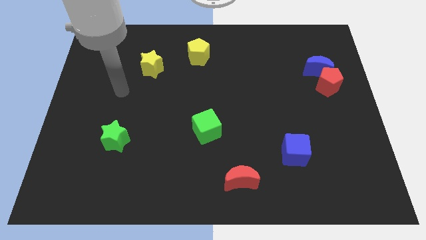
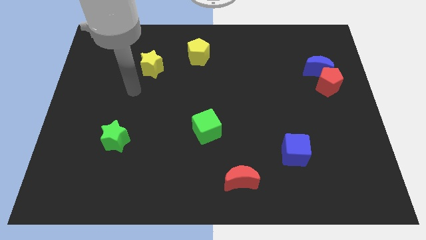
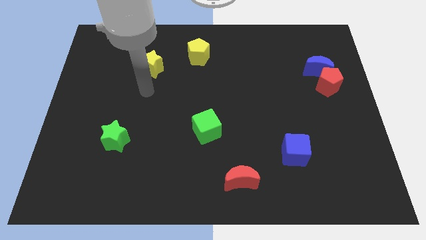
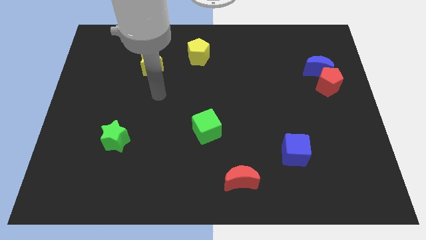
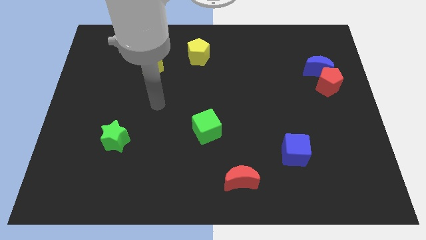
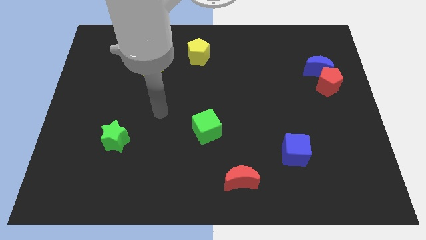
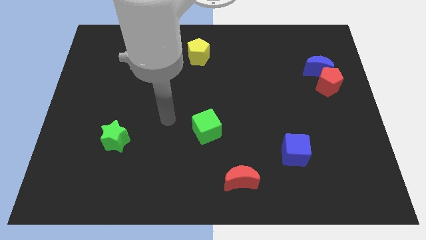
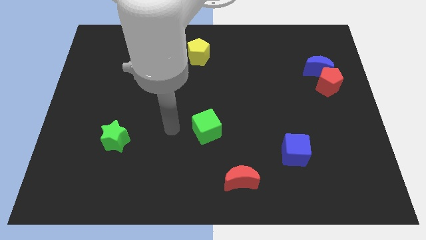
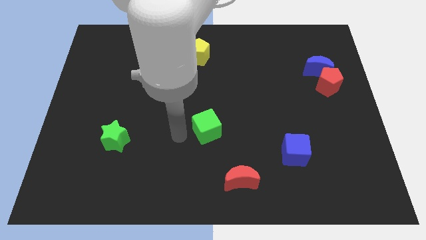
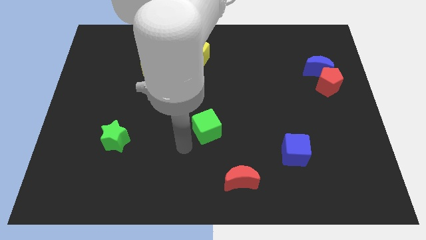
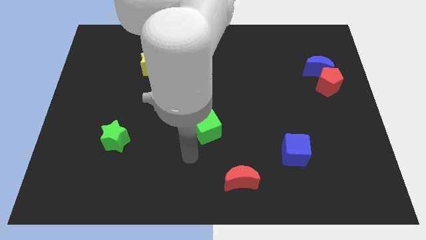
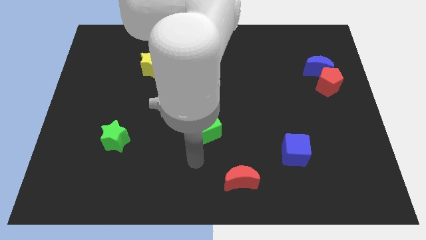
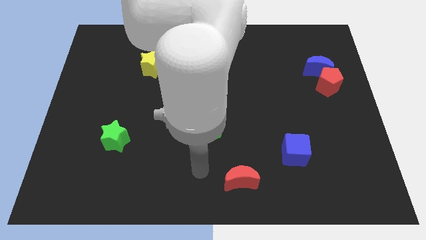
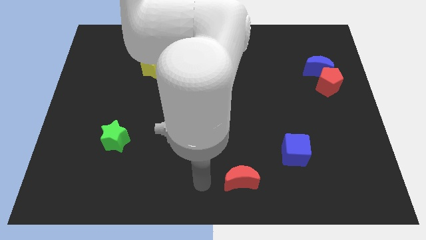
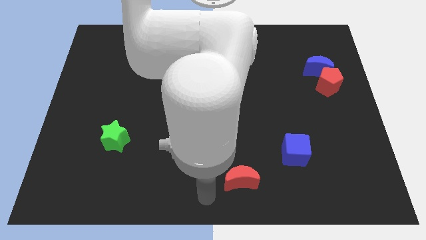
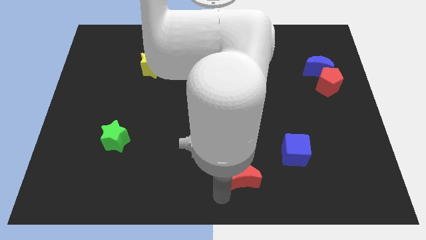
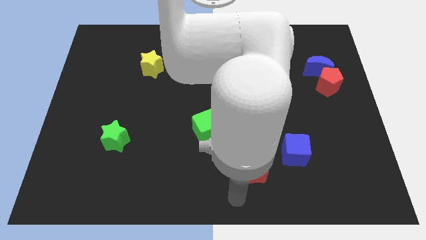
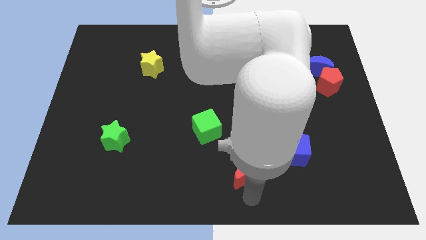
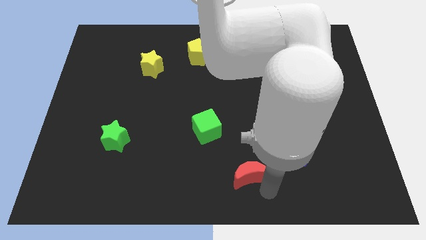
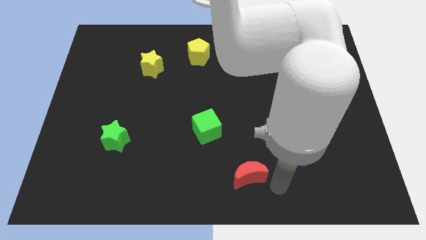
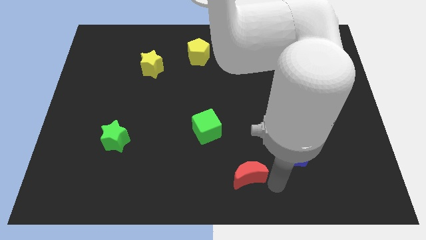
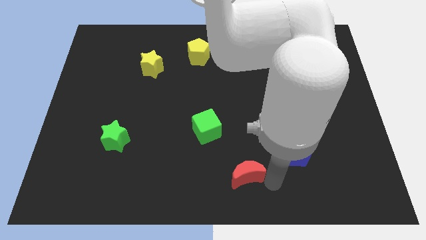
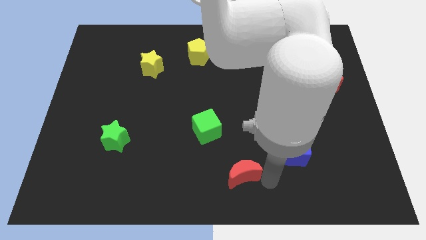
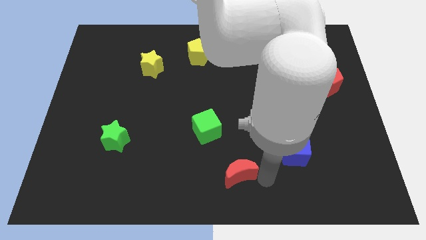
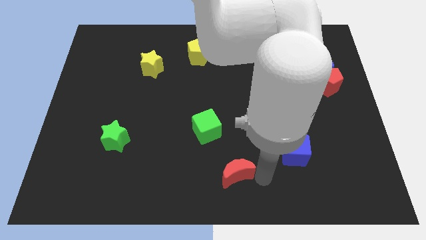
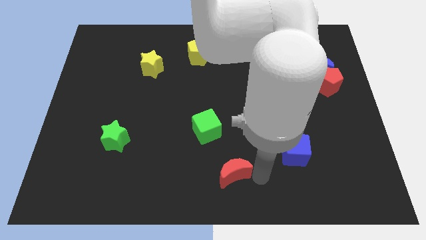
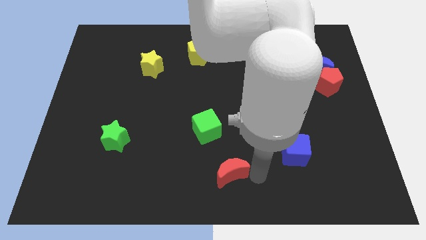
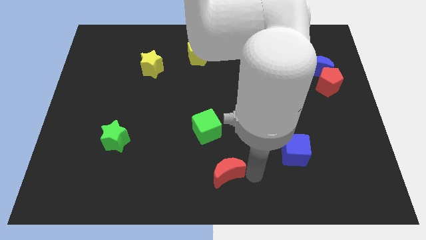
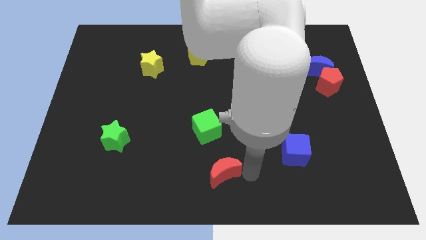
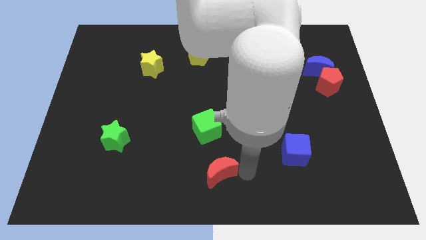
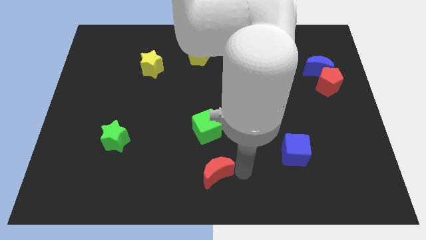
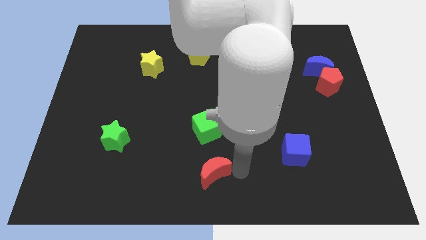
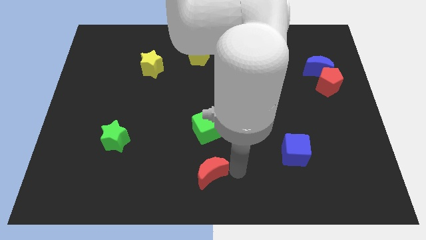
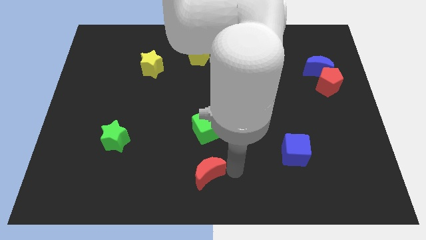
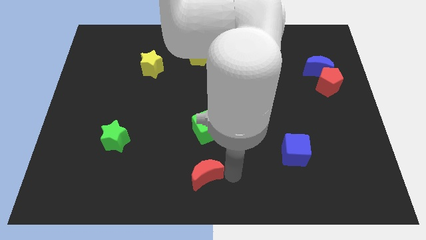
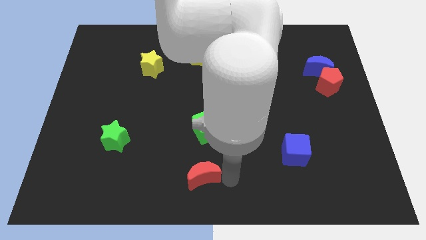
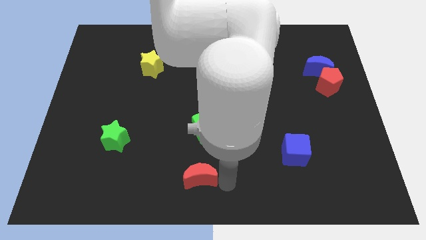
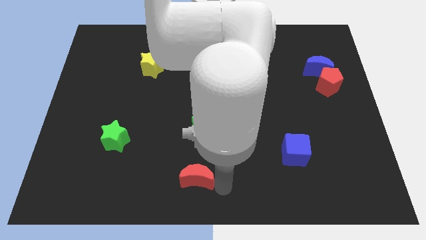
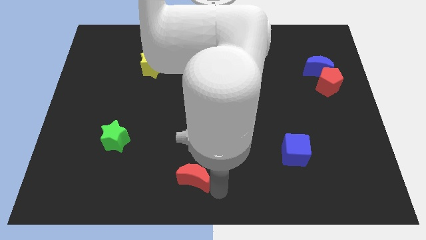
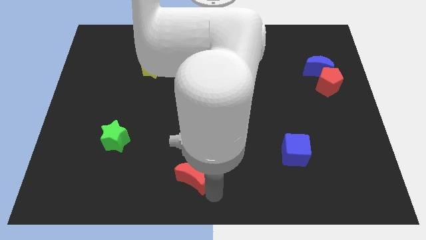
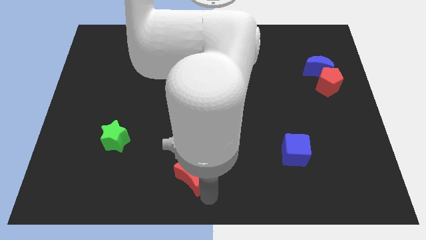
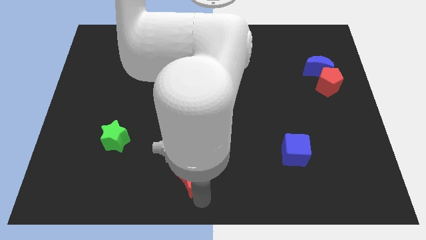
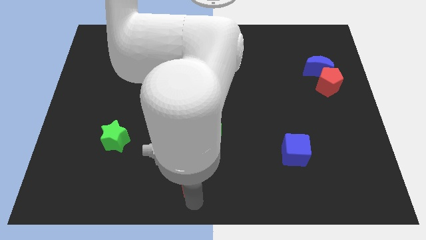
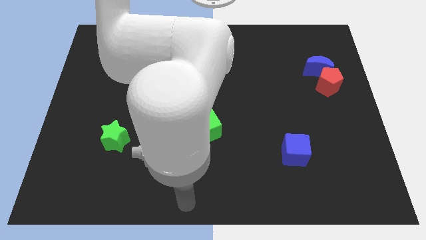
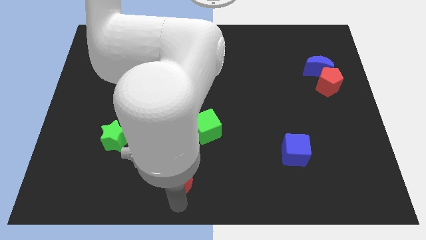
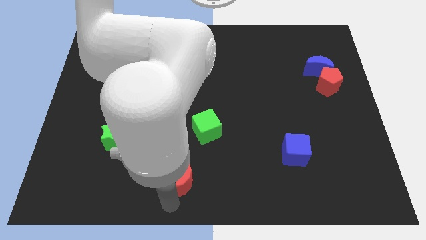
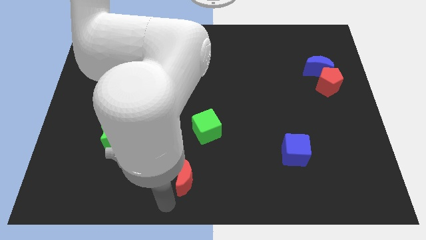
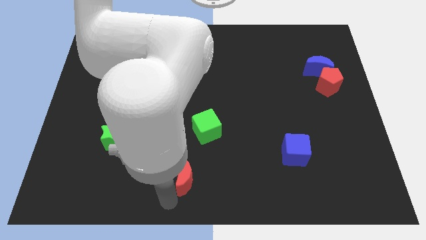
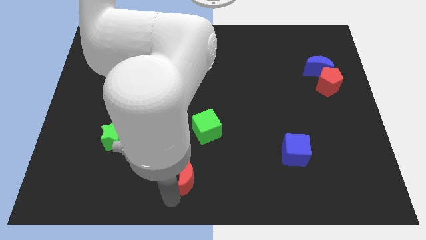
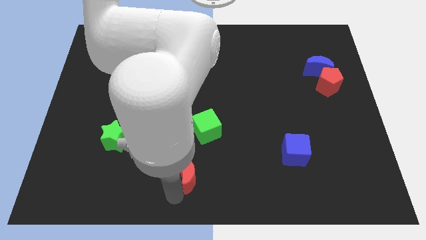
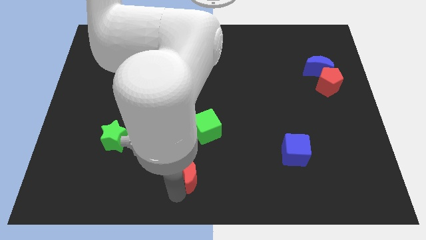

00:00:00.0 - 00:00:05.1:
slightly move the red moon upwards and to the left

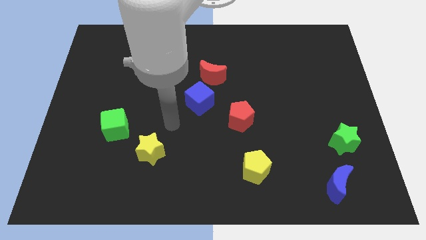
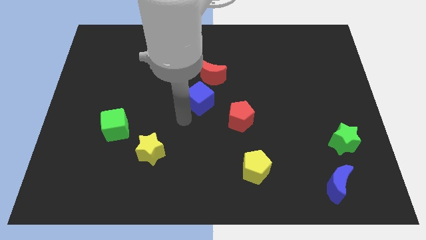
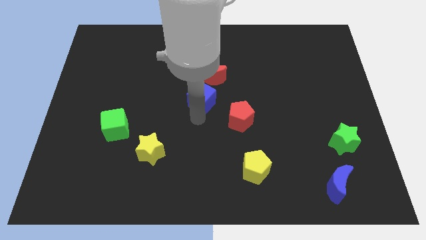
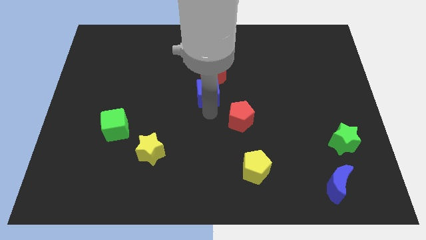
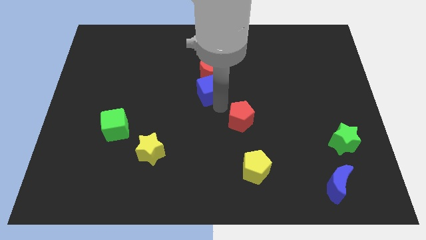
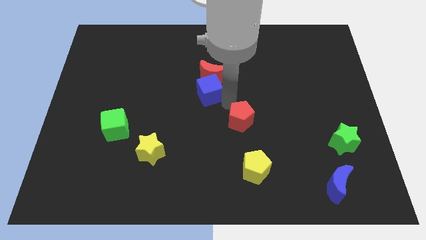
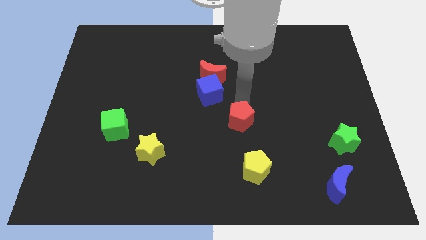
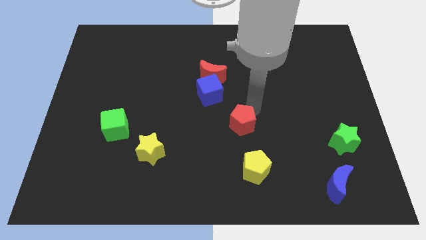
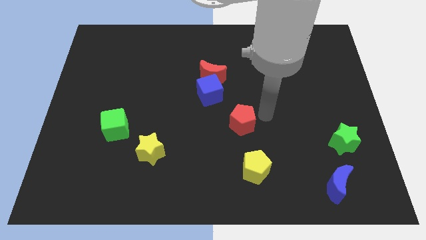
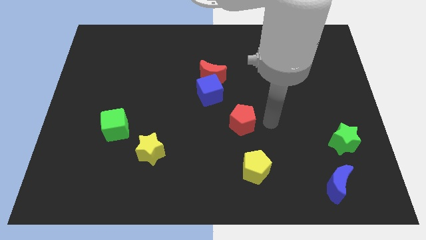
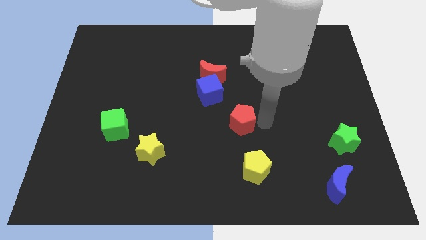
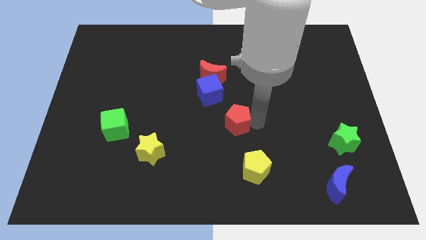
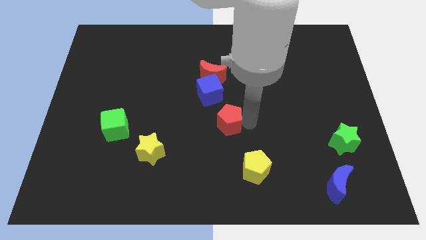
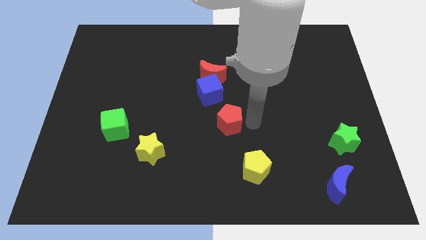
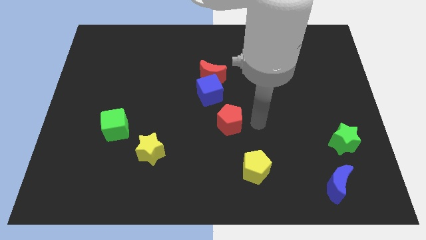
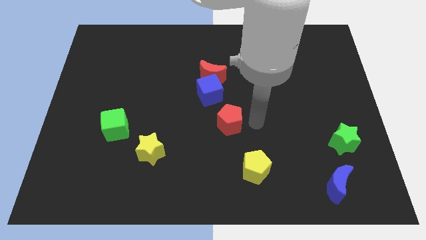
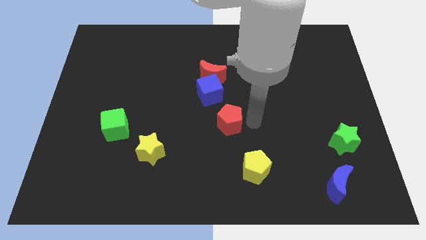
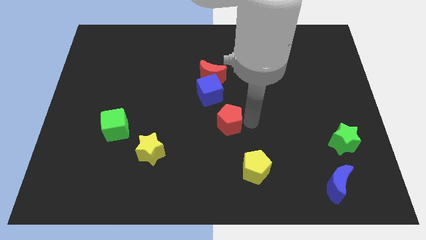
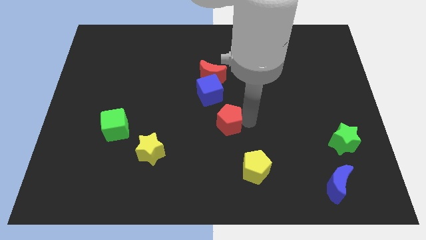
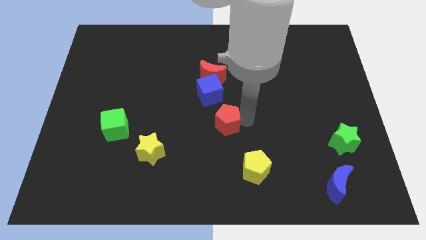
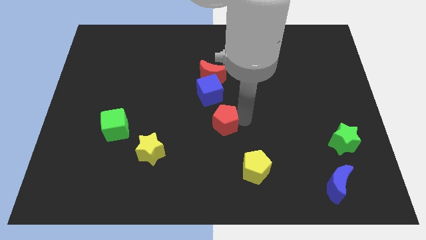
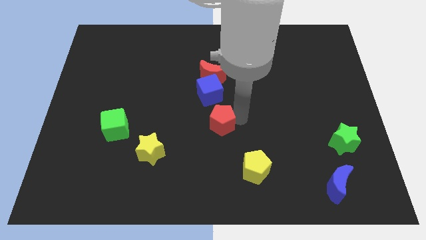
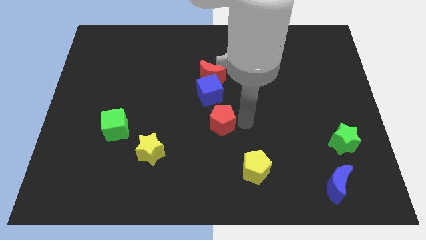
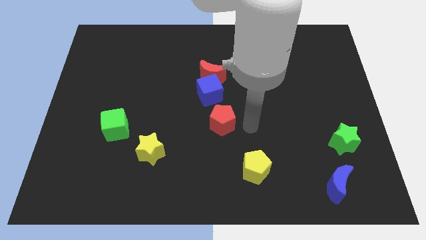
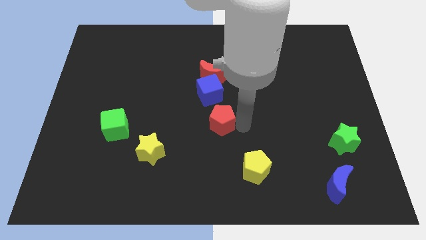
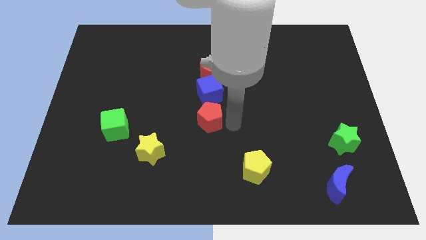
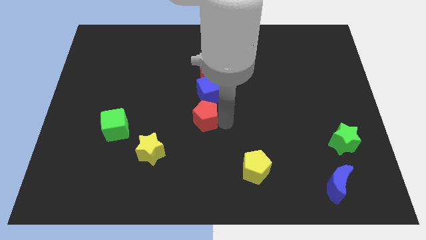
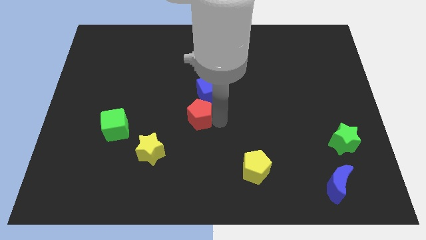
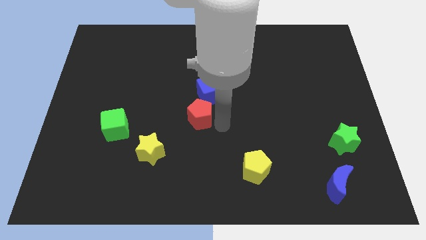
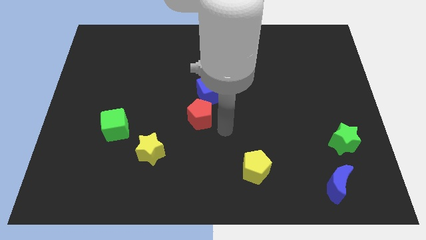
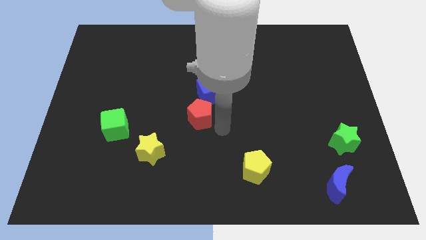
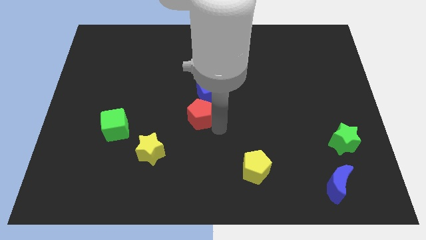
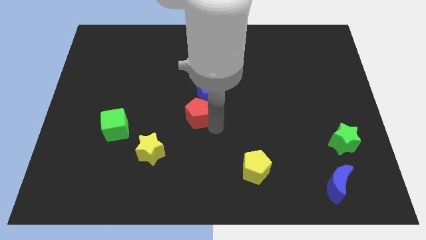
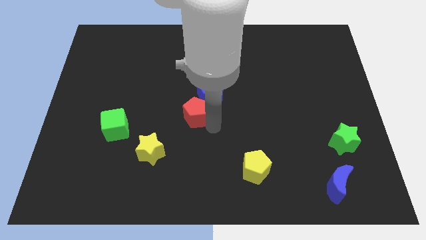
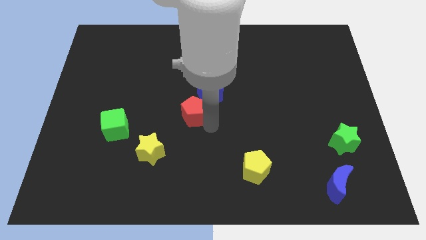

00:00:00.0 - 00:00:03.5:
slide the red pentagon a little up and then to the left
